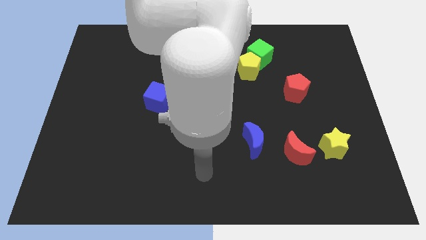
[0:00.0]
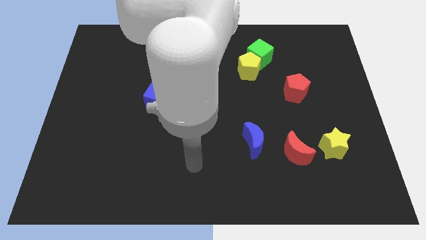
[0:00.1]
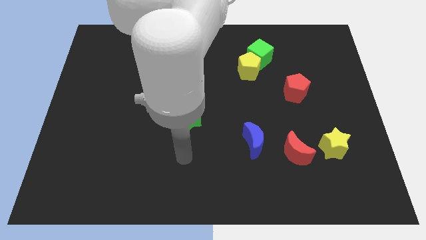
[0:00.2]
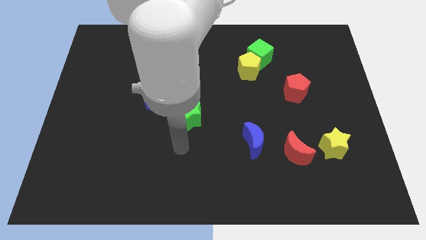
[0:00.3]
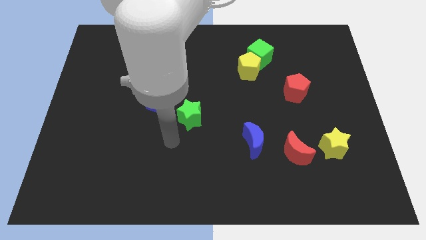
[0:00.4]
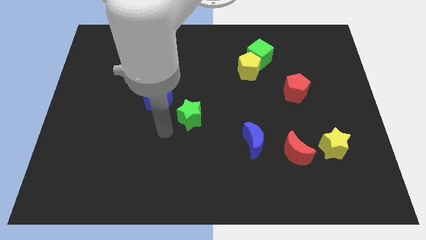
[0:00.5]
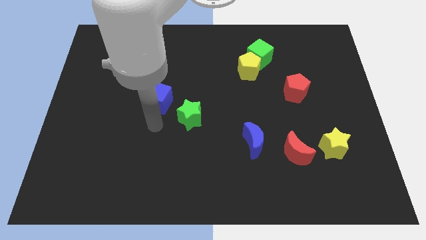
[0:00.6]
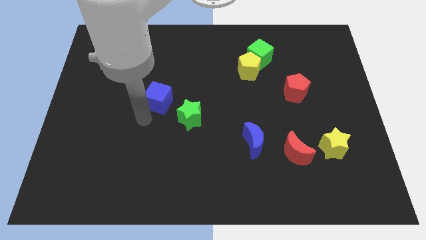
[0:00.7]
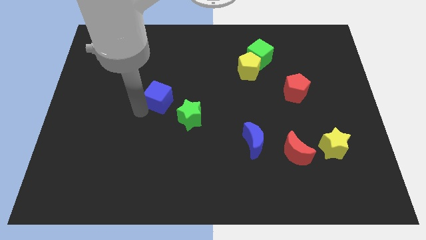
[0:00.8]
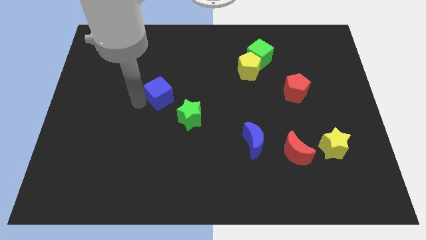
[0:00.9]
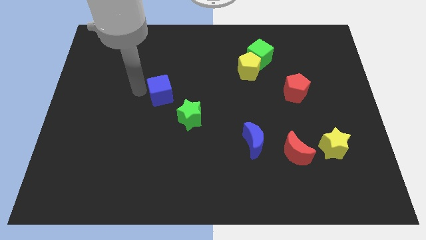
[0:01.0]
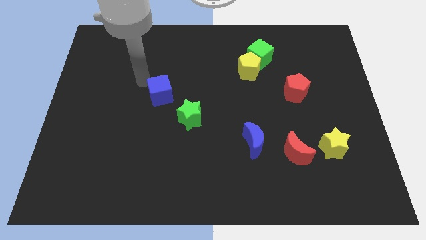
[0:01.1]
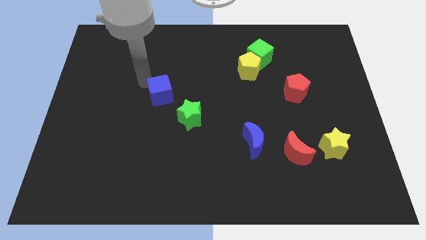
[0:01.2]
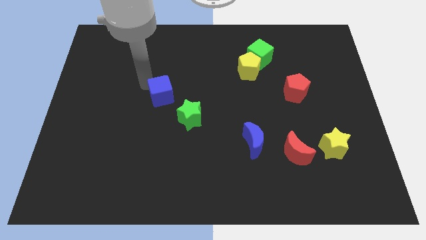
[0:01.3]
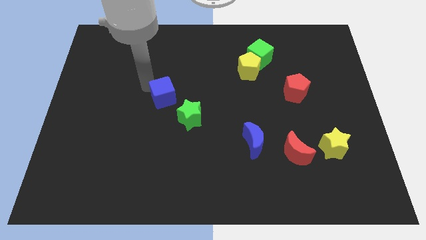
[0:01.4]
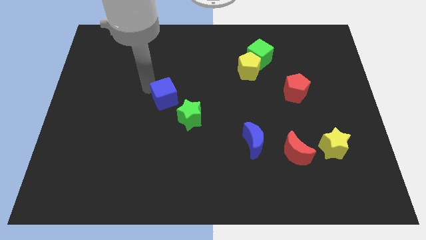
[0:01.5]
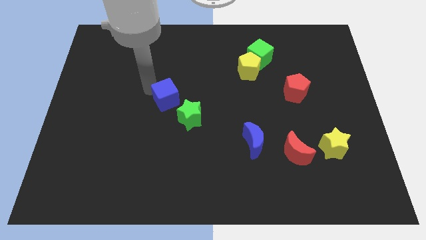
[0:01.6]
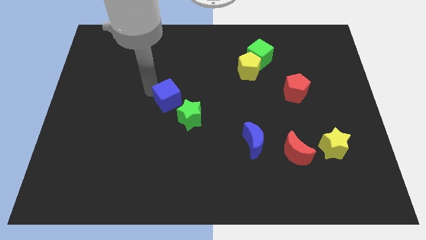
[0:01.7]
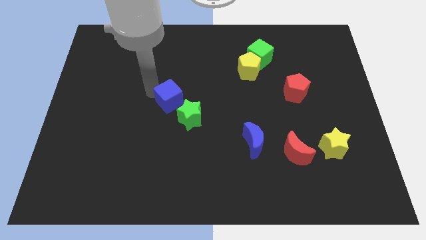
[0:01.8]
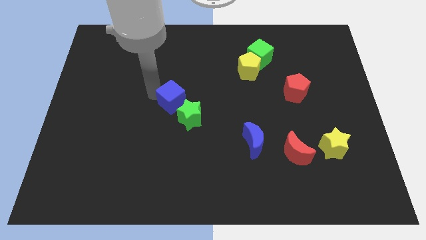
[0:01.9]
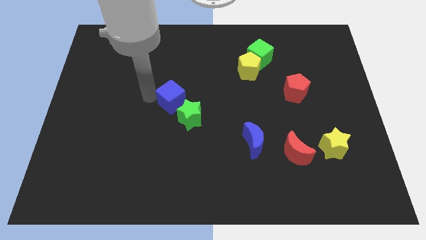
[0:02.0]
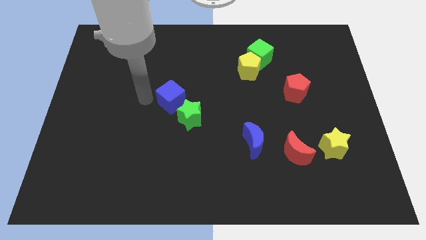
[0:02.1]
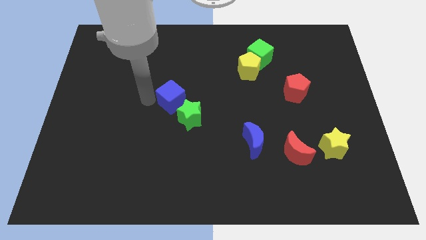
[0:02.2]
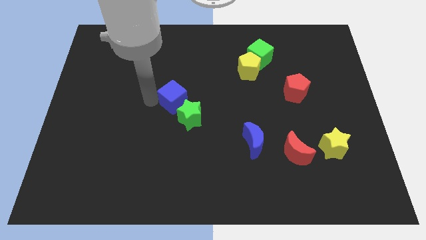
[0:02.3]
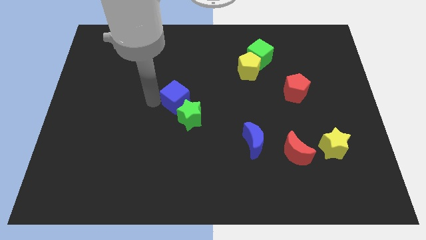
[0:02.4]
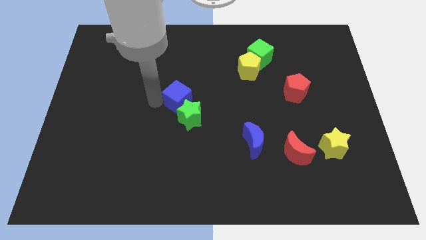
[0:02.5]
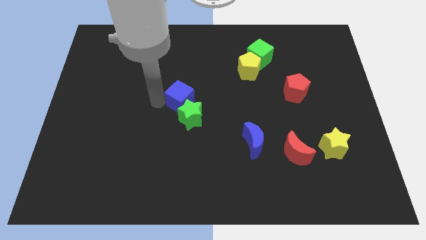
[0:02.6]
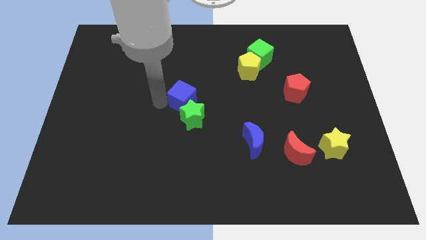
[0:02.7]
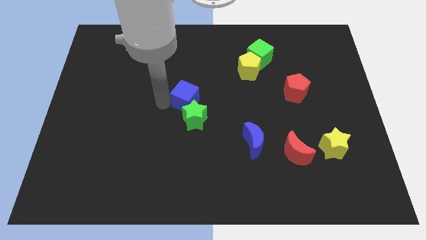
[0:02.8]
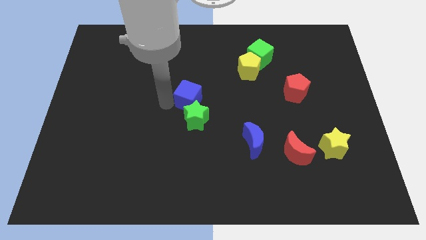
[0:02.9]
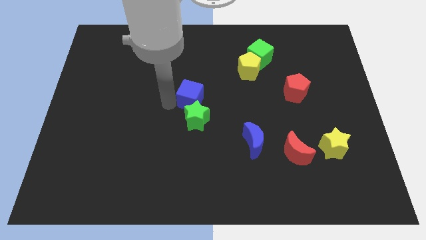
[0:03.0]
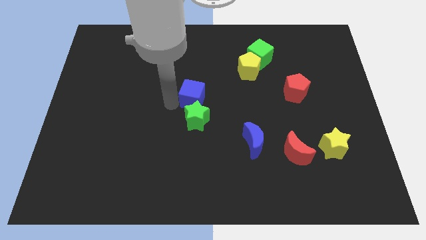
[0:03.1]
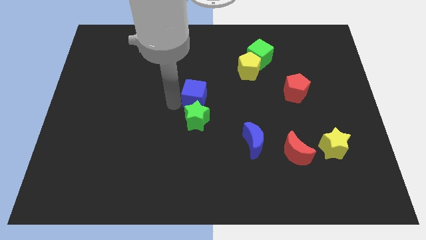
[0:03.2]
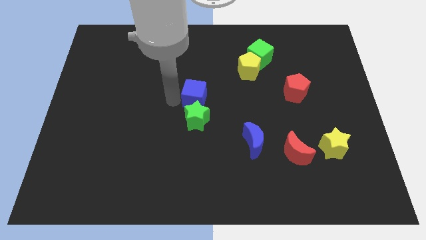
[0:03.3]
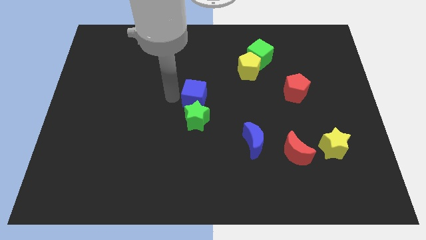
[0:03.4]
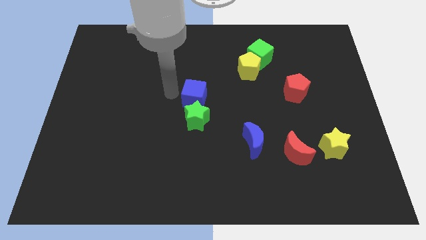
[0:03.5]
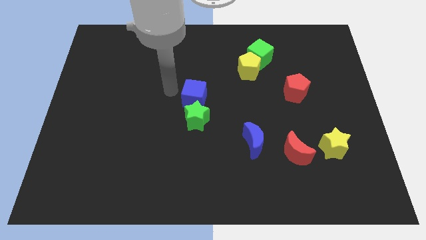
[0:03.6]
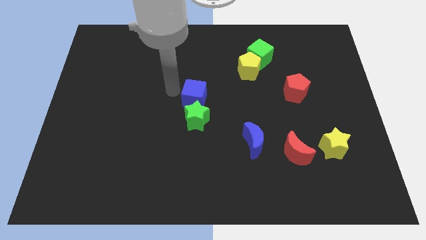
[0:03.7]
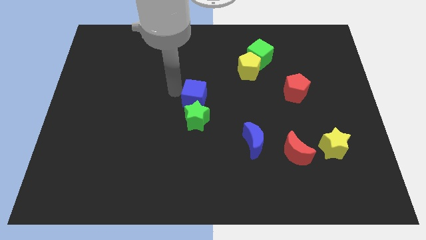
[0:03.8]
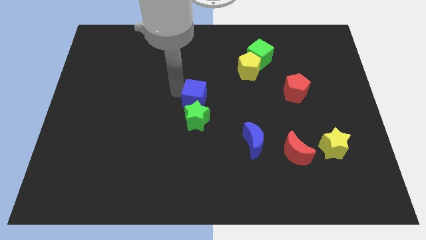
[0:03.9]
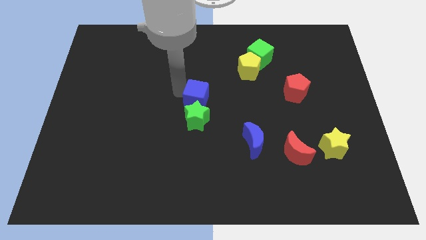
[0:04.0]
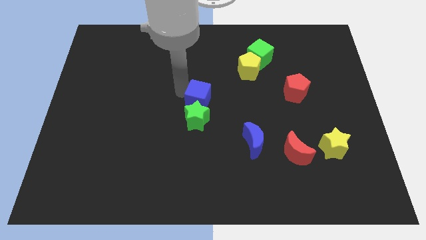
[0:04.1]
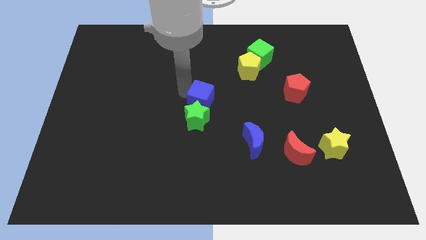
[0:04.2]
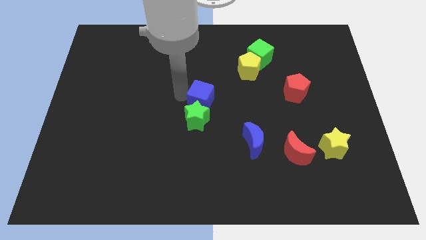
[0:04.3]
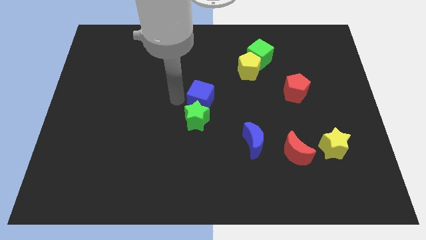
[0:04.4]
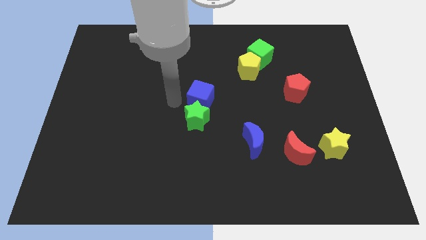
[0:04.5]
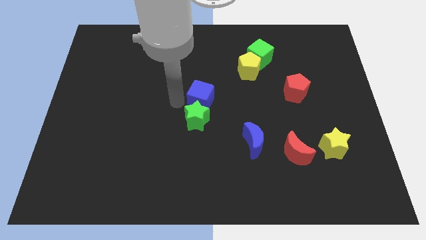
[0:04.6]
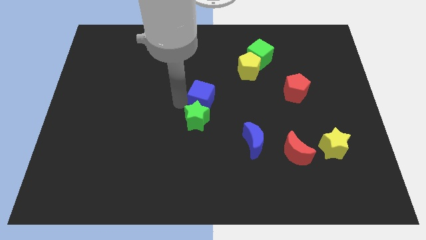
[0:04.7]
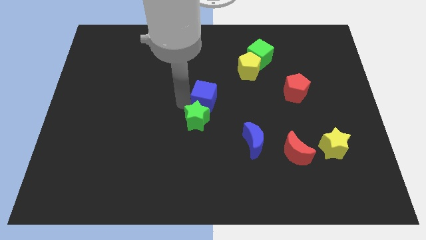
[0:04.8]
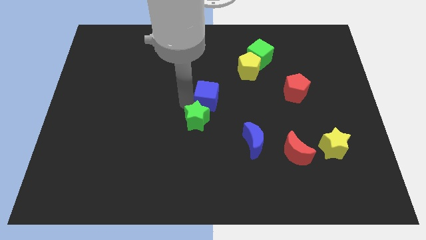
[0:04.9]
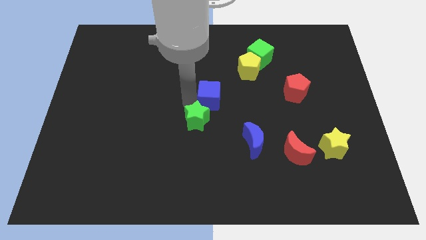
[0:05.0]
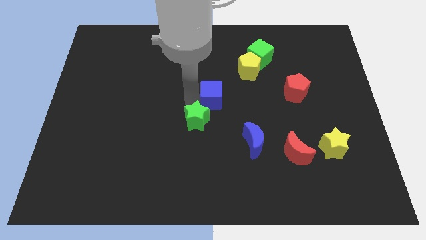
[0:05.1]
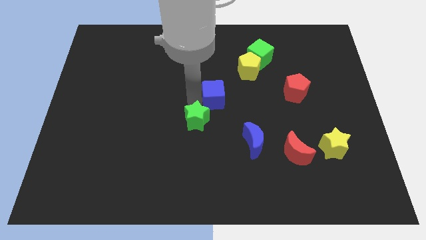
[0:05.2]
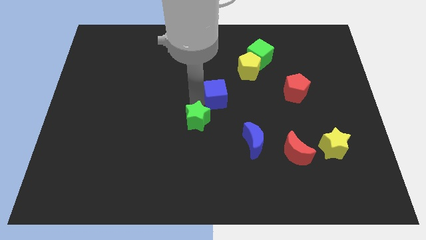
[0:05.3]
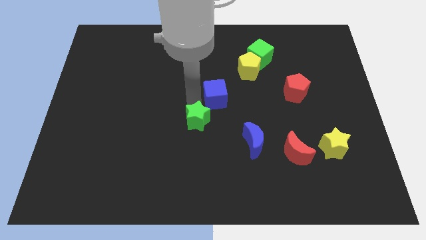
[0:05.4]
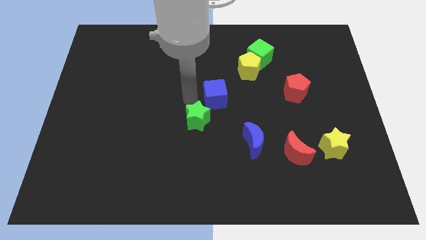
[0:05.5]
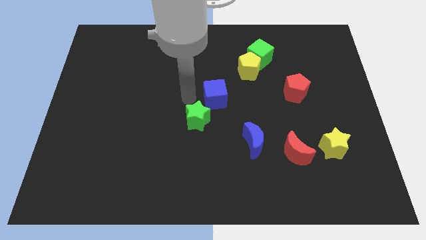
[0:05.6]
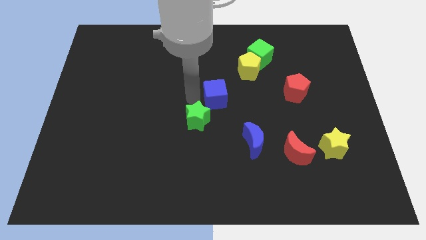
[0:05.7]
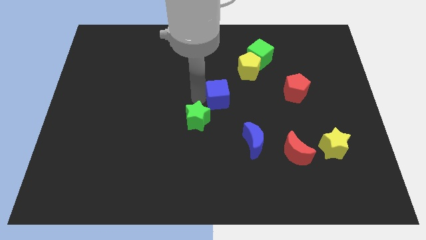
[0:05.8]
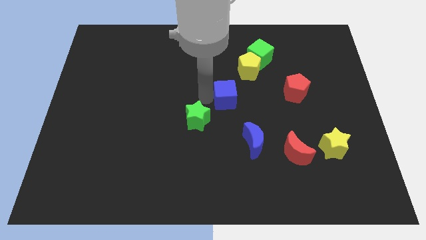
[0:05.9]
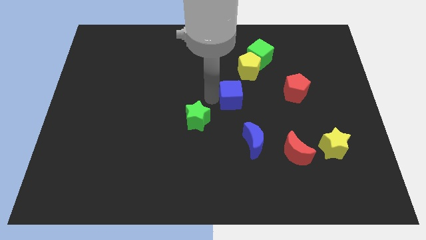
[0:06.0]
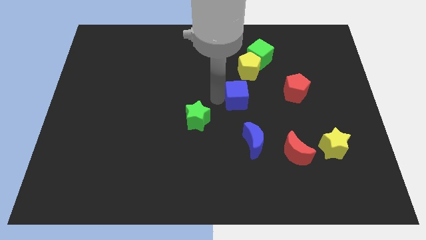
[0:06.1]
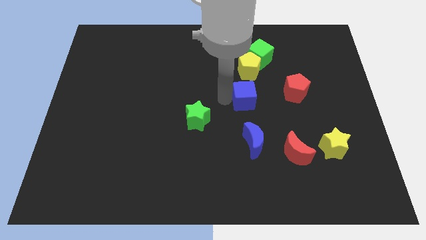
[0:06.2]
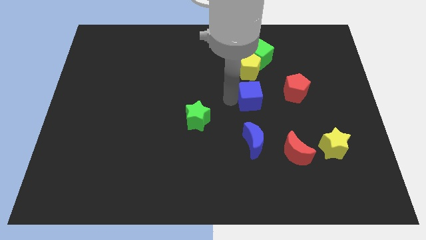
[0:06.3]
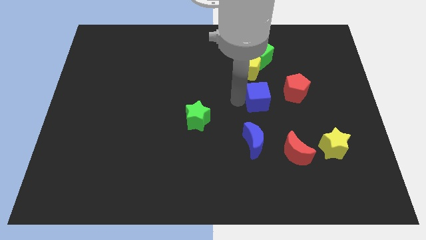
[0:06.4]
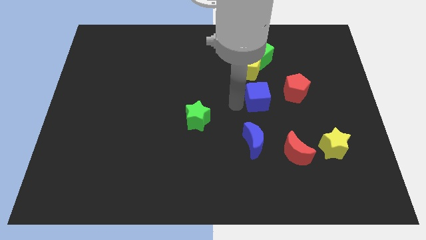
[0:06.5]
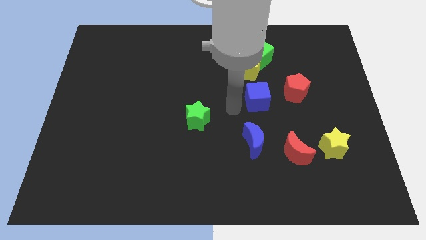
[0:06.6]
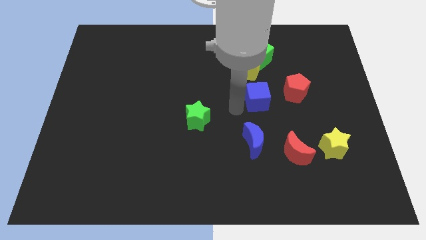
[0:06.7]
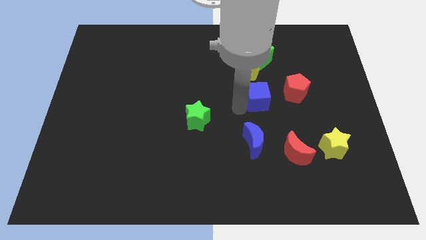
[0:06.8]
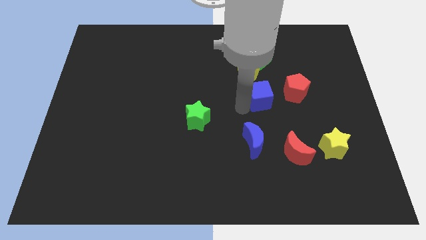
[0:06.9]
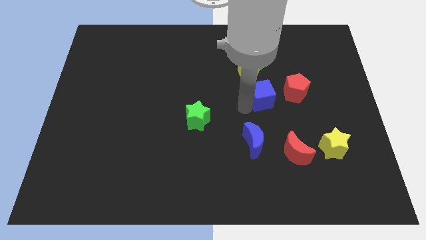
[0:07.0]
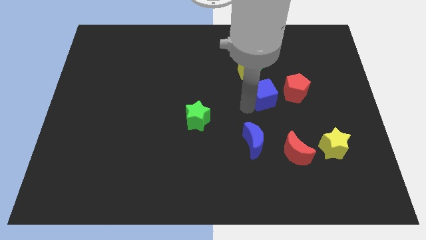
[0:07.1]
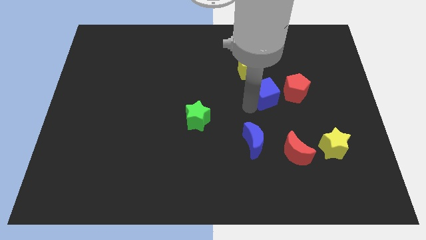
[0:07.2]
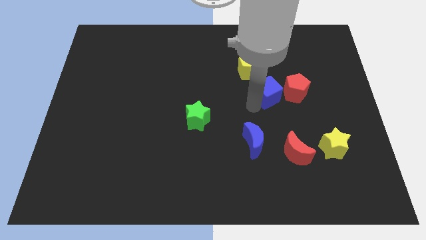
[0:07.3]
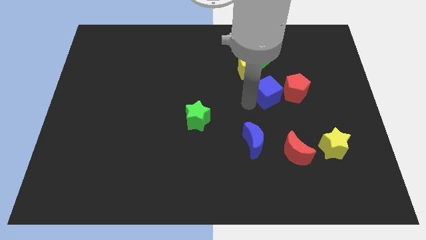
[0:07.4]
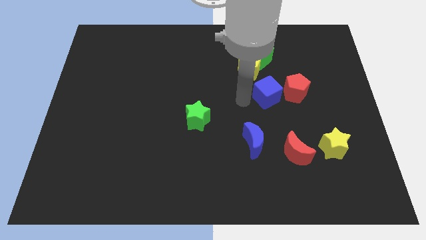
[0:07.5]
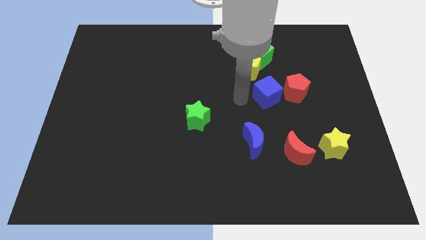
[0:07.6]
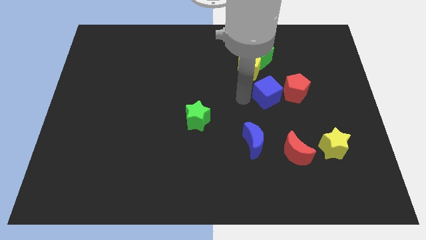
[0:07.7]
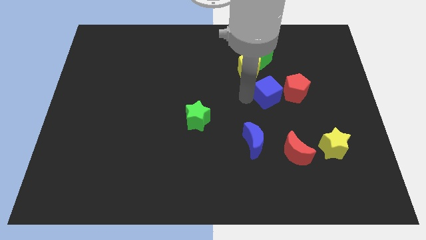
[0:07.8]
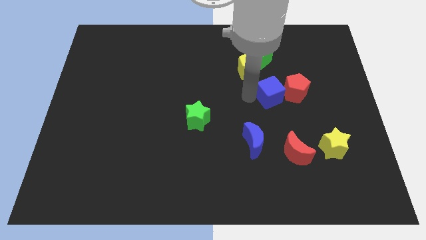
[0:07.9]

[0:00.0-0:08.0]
put the blue cube to the red pentagon
